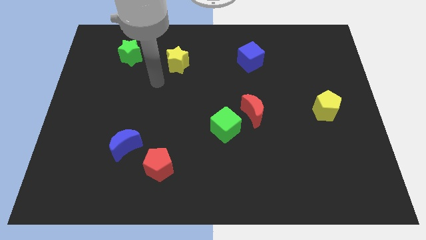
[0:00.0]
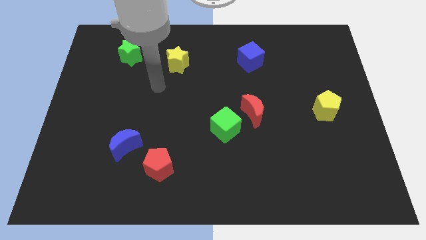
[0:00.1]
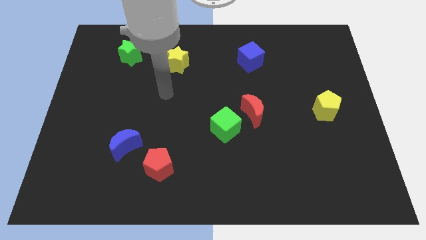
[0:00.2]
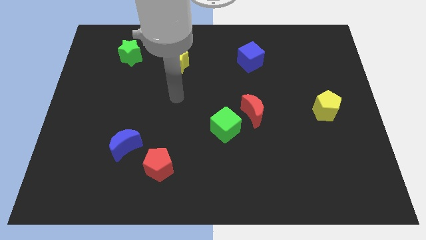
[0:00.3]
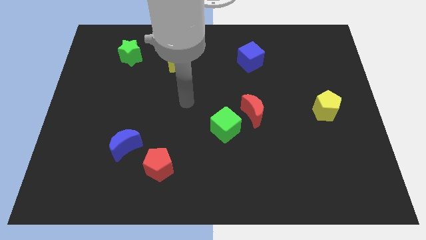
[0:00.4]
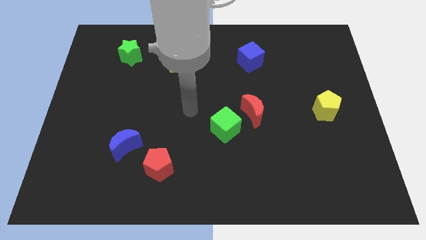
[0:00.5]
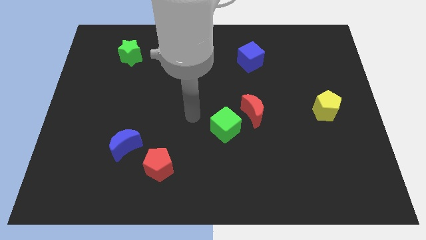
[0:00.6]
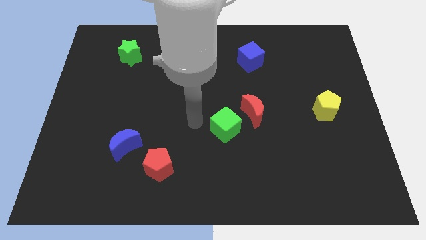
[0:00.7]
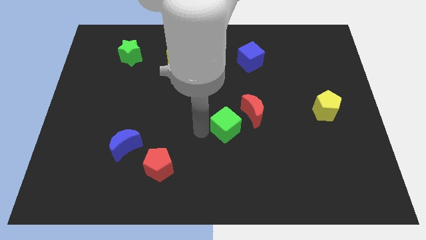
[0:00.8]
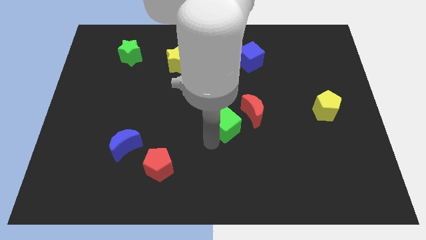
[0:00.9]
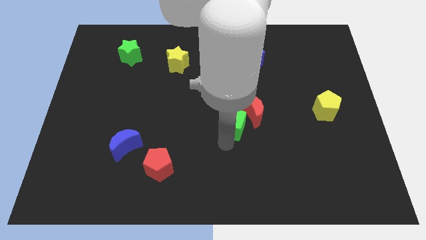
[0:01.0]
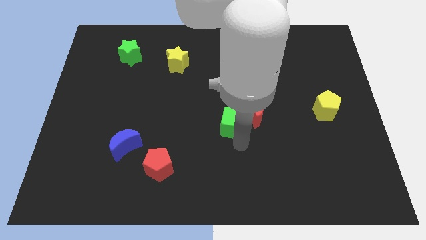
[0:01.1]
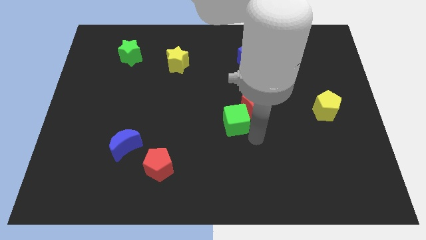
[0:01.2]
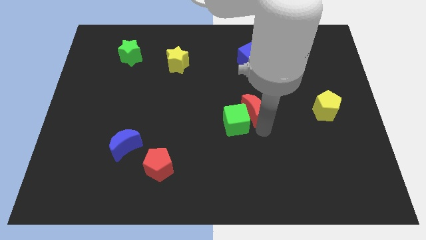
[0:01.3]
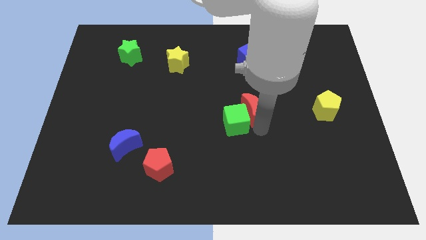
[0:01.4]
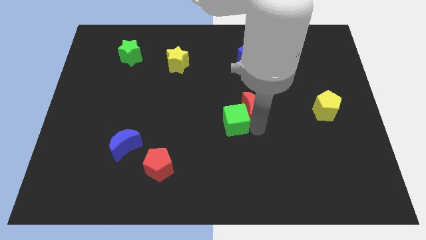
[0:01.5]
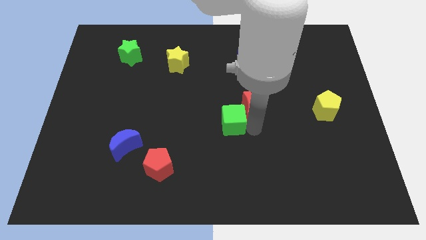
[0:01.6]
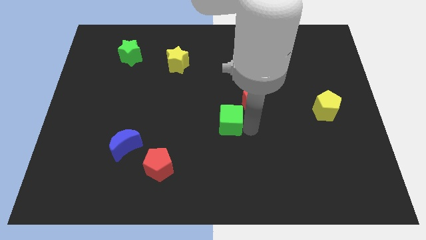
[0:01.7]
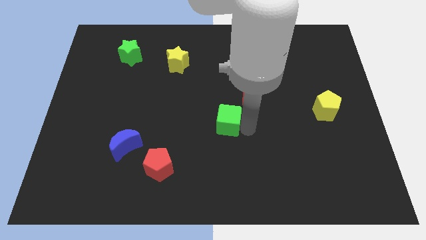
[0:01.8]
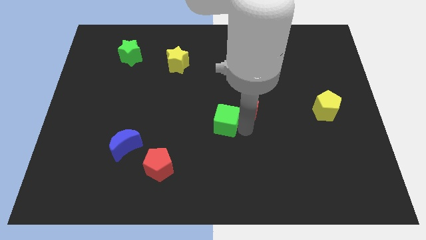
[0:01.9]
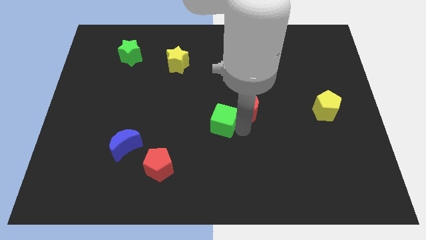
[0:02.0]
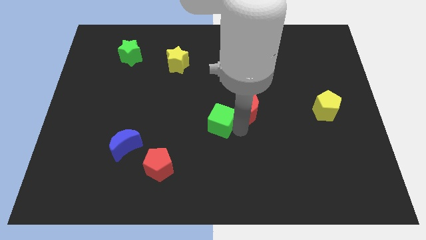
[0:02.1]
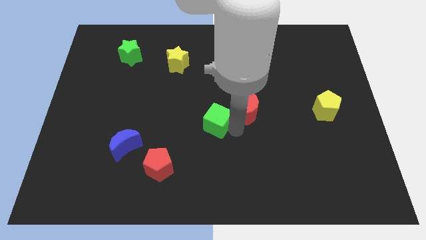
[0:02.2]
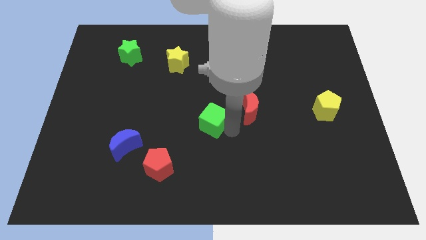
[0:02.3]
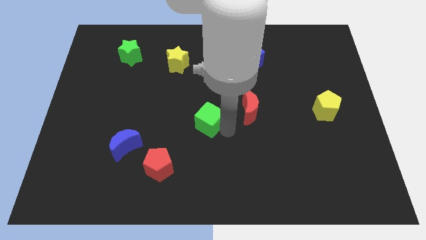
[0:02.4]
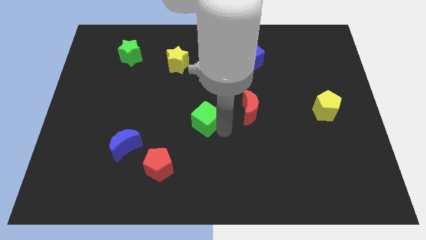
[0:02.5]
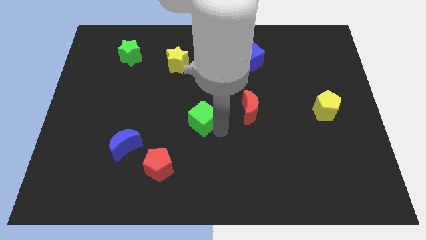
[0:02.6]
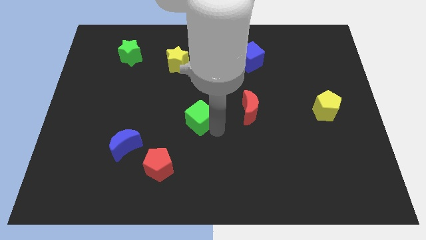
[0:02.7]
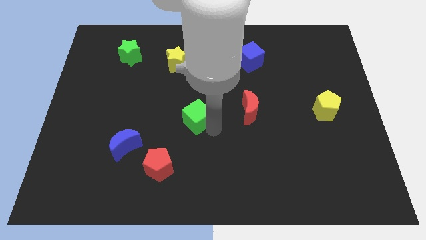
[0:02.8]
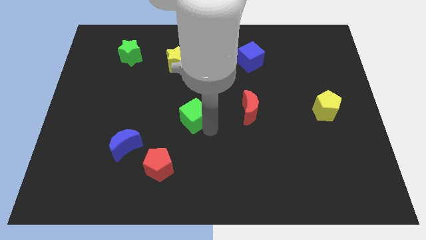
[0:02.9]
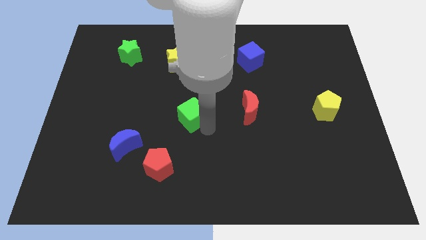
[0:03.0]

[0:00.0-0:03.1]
slide the green cube up and to the left diagonally a bit

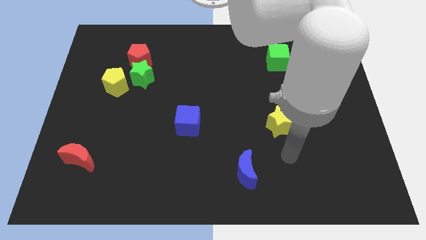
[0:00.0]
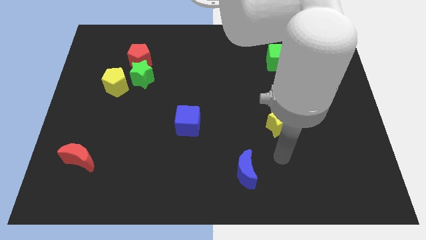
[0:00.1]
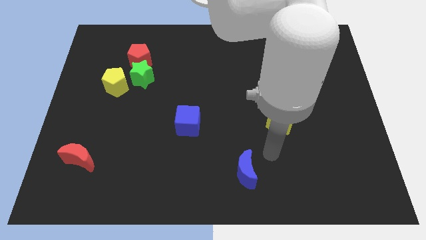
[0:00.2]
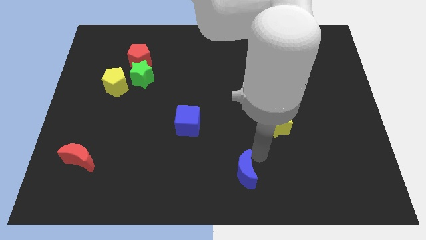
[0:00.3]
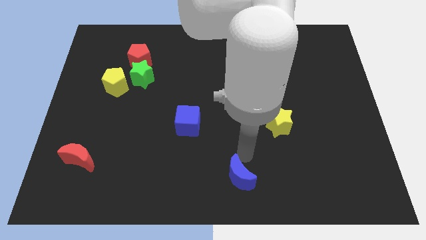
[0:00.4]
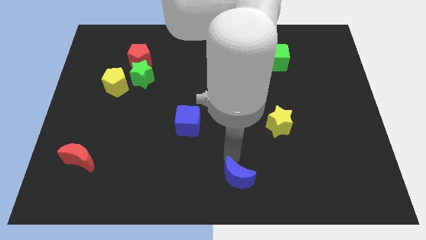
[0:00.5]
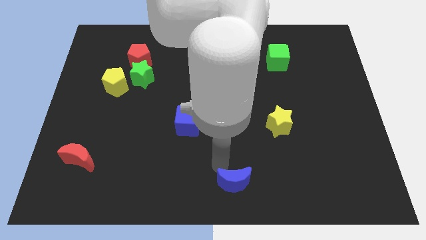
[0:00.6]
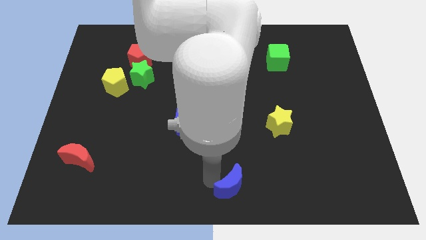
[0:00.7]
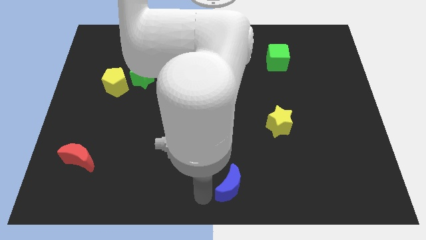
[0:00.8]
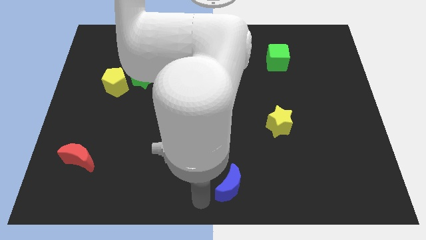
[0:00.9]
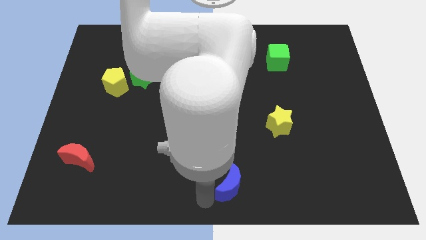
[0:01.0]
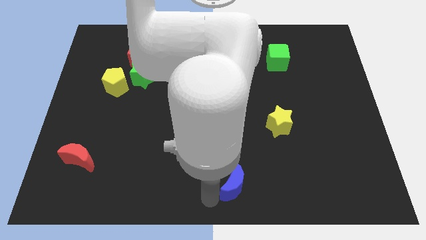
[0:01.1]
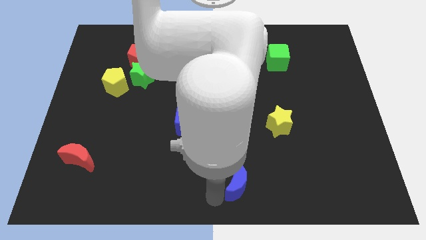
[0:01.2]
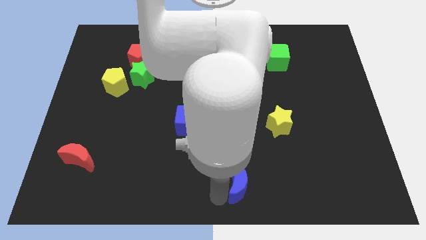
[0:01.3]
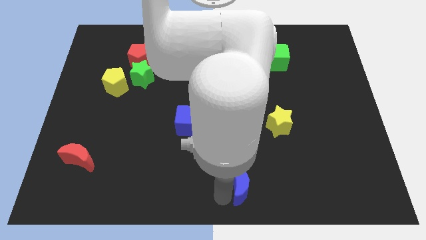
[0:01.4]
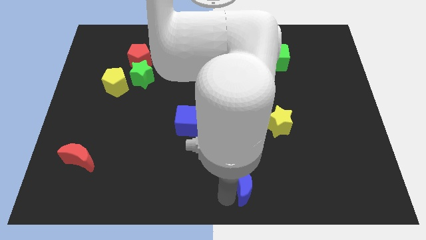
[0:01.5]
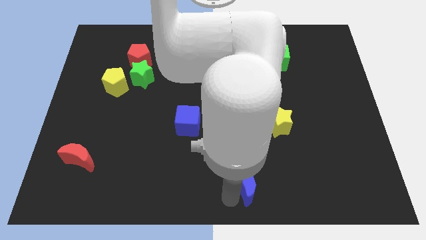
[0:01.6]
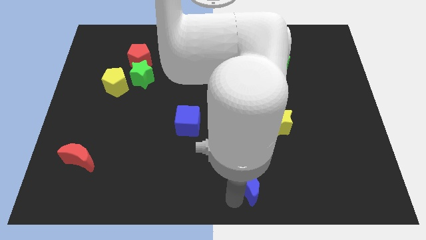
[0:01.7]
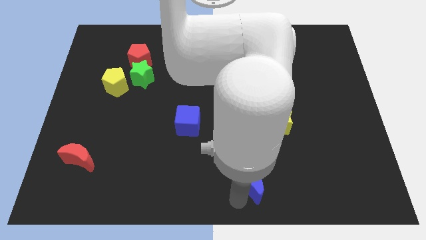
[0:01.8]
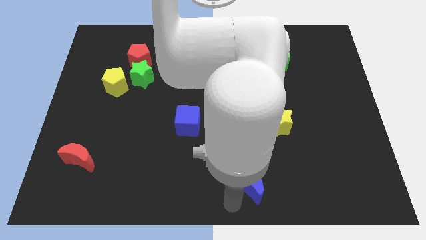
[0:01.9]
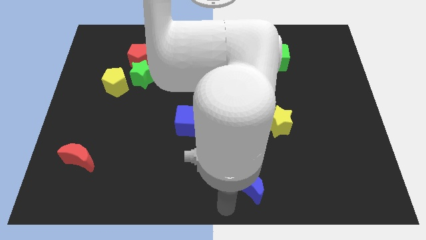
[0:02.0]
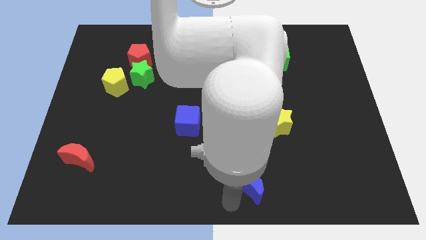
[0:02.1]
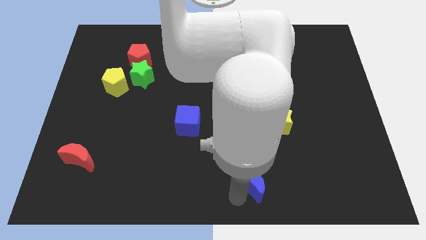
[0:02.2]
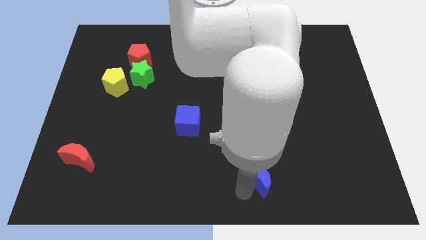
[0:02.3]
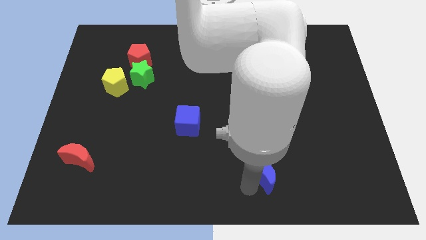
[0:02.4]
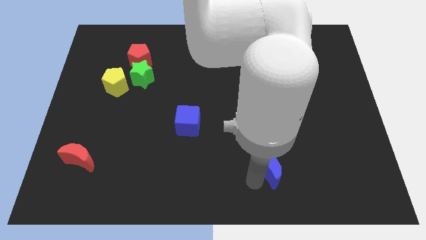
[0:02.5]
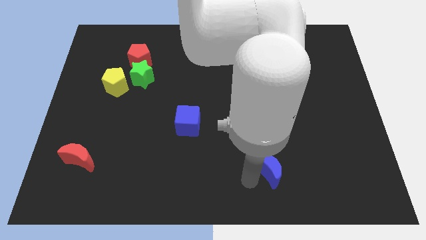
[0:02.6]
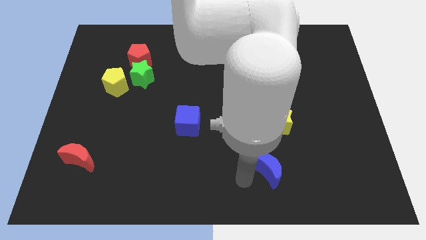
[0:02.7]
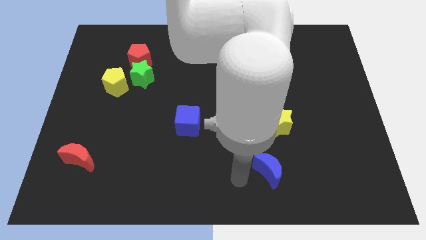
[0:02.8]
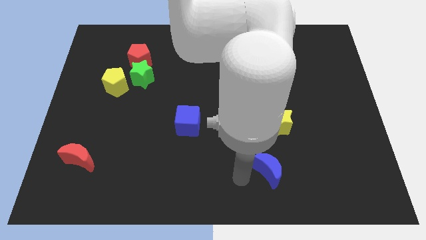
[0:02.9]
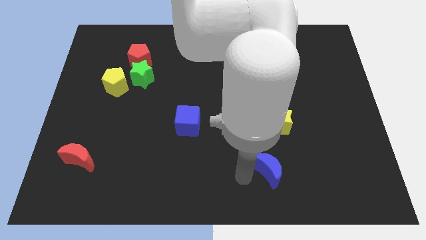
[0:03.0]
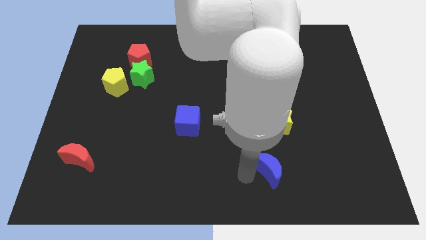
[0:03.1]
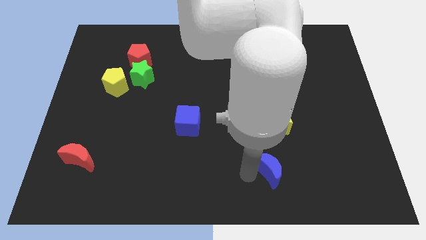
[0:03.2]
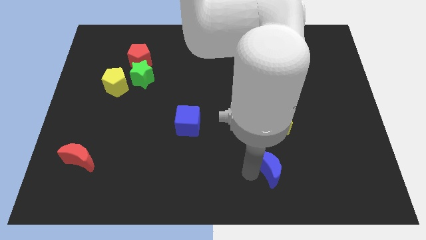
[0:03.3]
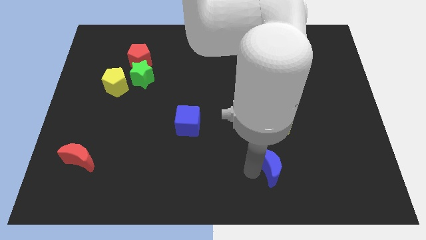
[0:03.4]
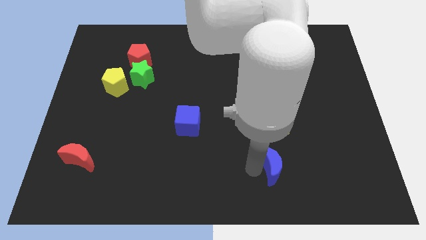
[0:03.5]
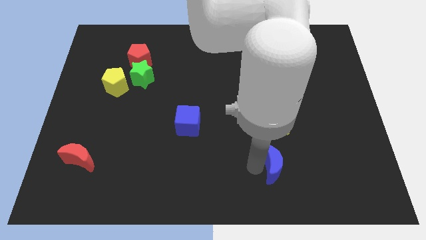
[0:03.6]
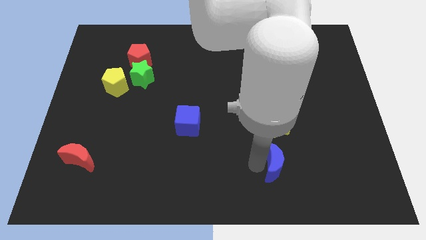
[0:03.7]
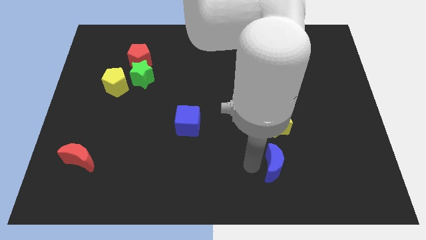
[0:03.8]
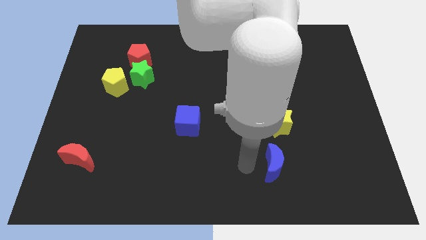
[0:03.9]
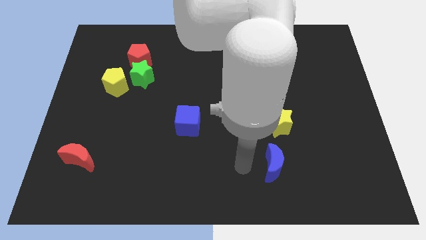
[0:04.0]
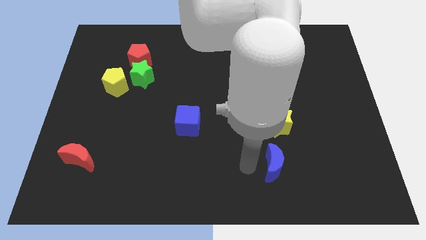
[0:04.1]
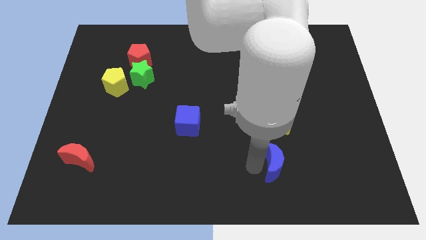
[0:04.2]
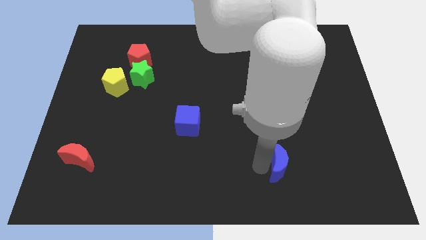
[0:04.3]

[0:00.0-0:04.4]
slightly push the blue moon to the right

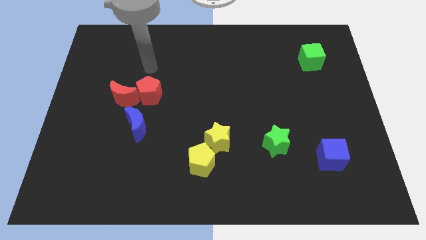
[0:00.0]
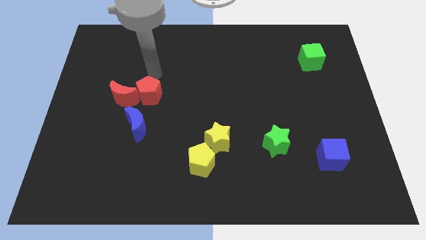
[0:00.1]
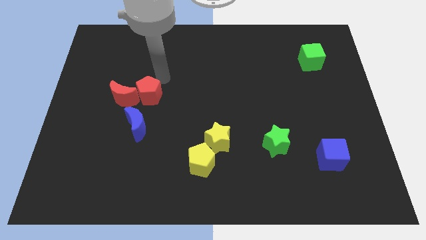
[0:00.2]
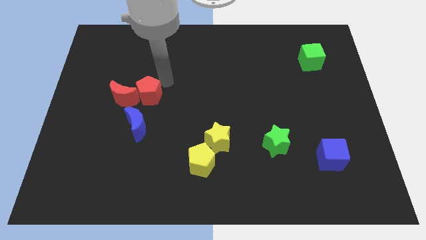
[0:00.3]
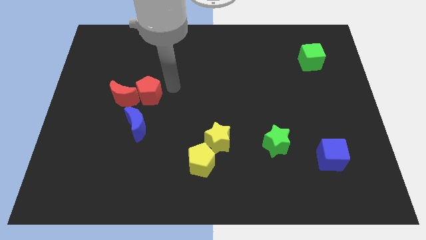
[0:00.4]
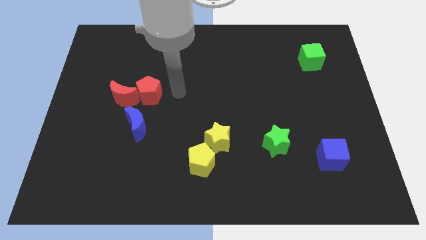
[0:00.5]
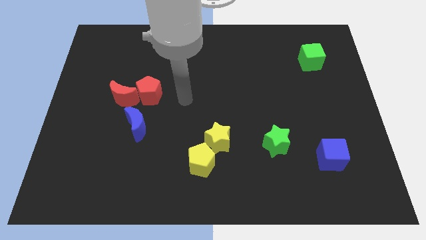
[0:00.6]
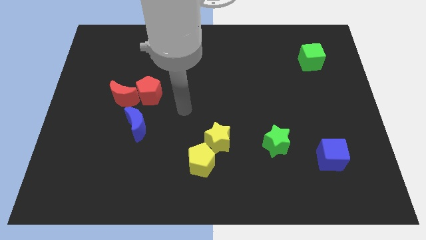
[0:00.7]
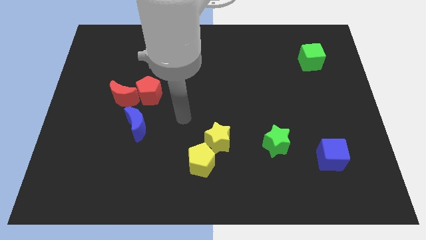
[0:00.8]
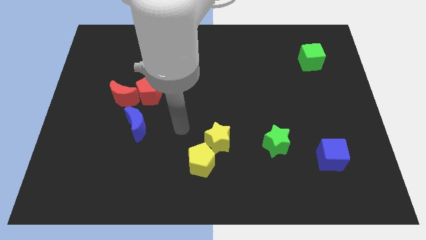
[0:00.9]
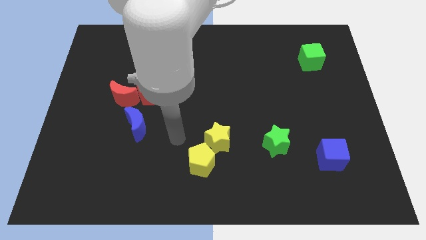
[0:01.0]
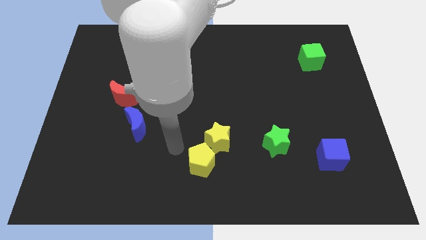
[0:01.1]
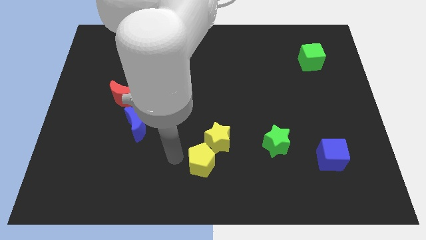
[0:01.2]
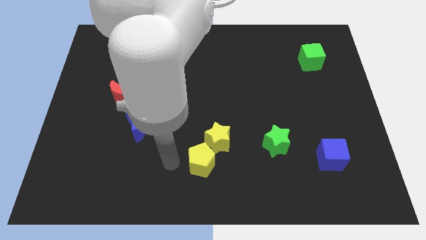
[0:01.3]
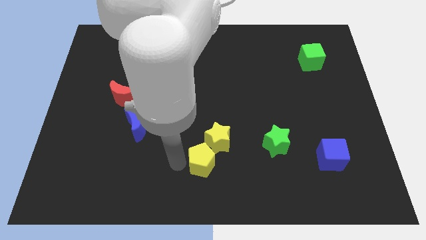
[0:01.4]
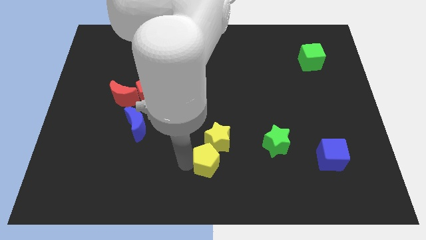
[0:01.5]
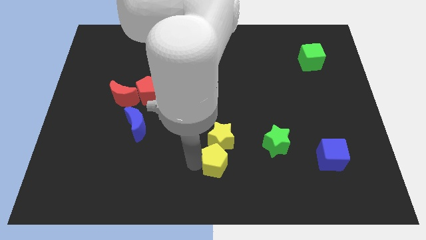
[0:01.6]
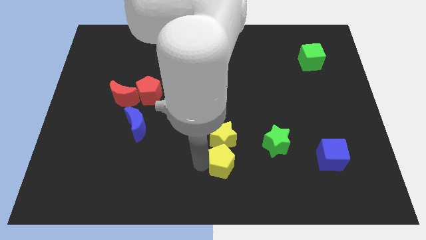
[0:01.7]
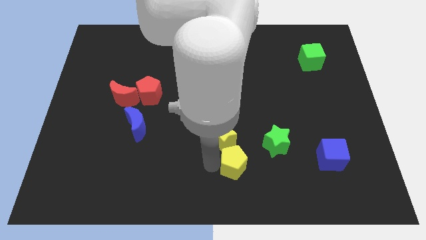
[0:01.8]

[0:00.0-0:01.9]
push the yellow pentagon a little to the right
